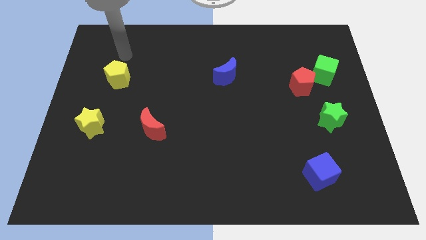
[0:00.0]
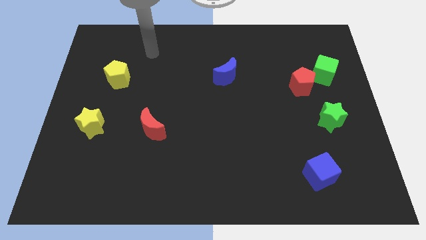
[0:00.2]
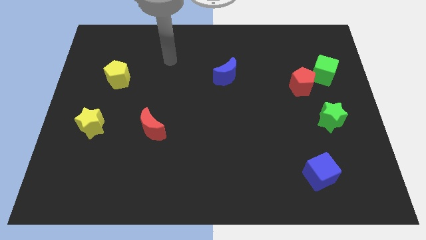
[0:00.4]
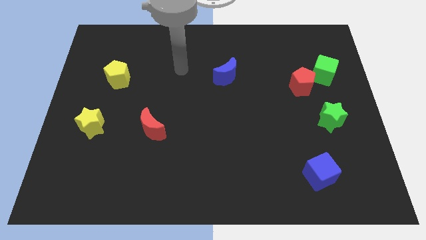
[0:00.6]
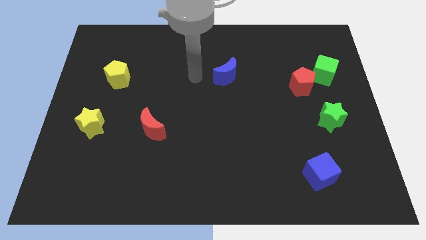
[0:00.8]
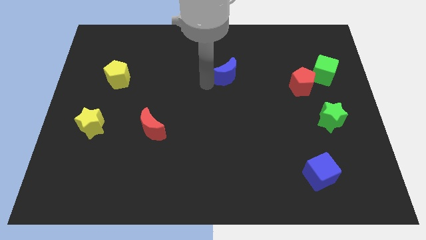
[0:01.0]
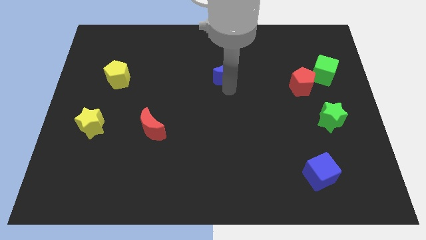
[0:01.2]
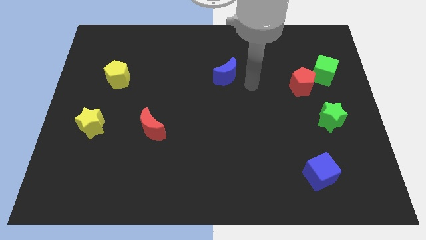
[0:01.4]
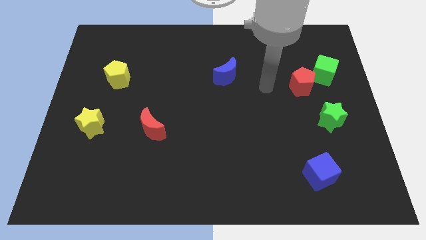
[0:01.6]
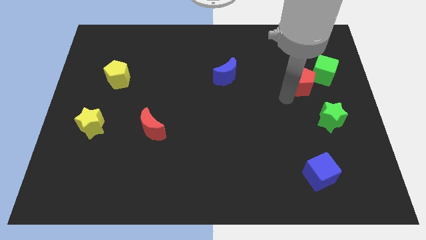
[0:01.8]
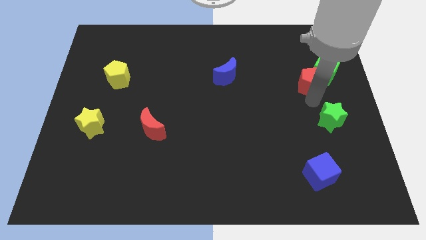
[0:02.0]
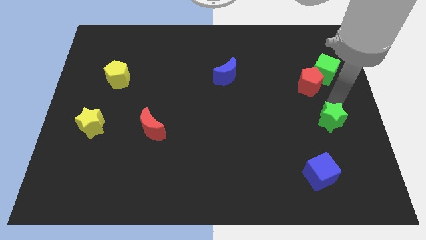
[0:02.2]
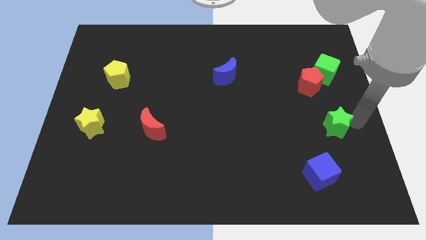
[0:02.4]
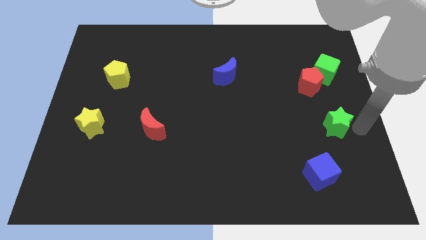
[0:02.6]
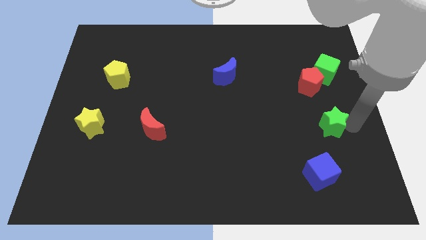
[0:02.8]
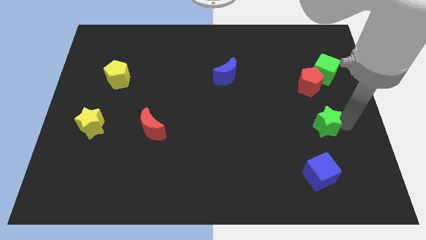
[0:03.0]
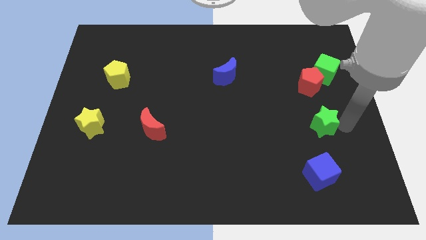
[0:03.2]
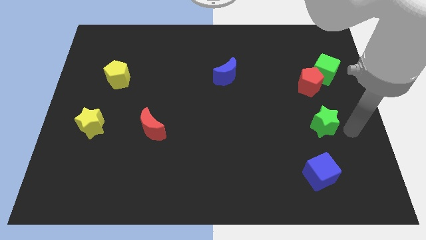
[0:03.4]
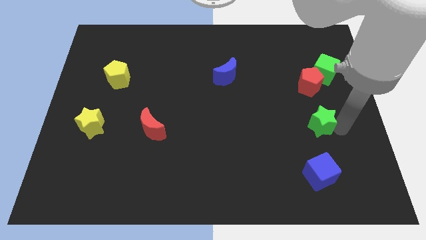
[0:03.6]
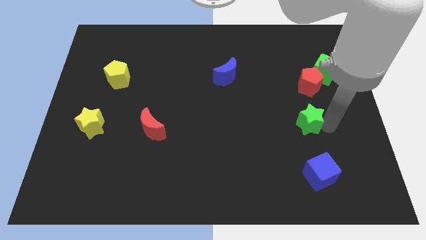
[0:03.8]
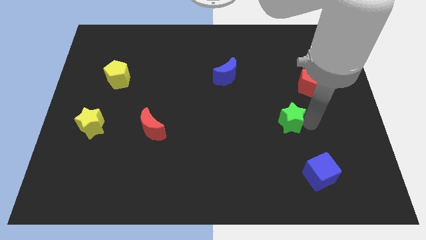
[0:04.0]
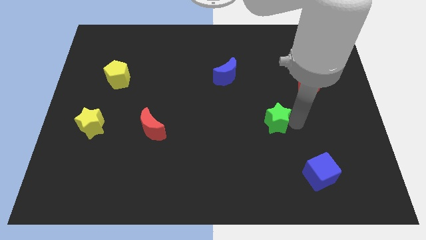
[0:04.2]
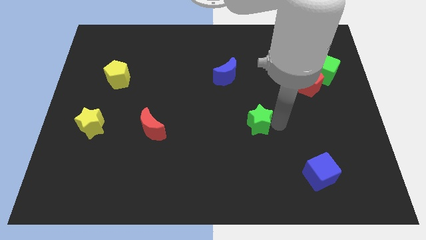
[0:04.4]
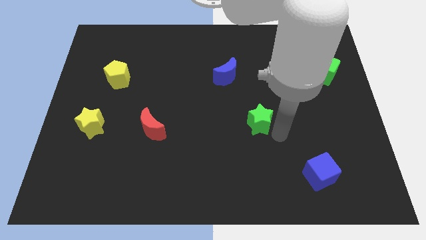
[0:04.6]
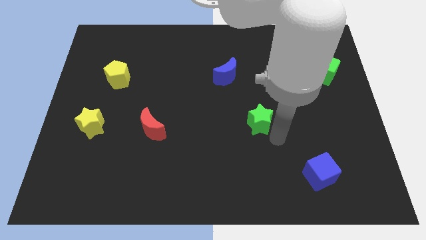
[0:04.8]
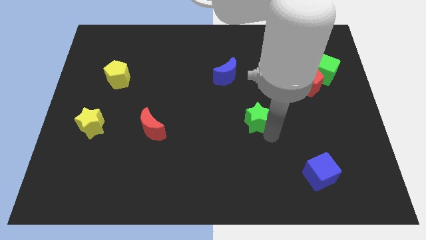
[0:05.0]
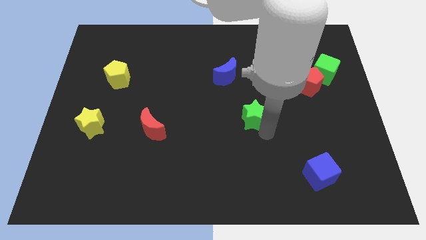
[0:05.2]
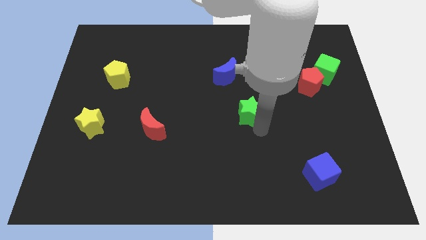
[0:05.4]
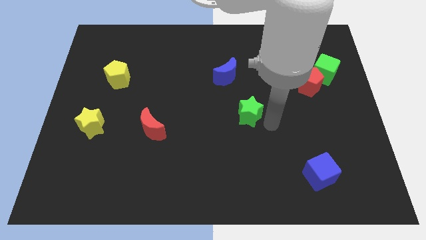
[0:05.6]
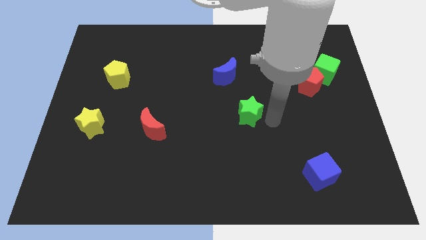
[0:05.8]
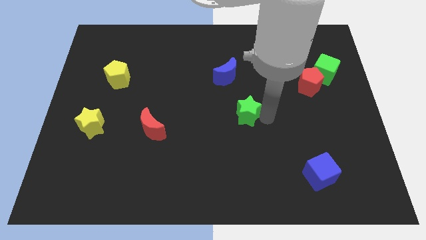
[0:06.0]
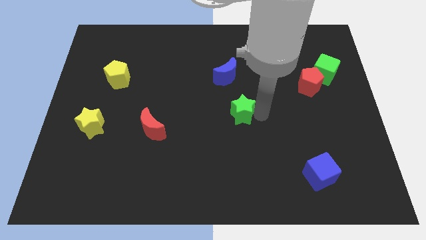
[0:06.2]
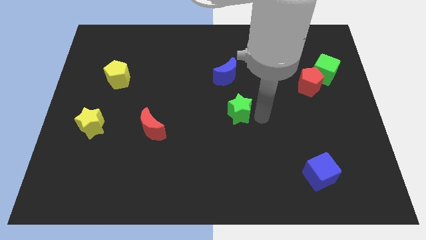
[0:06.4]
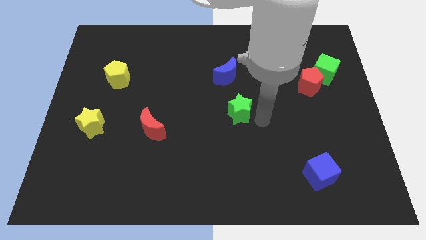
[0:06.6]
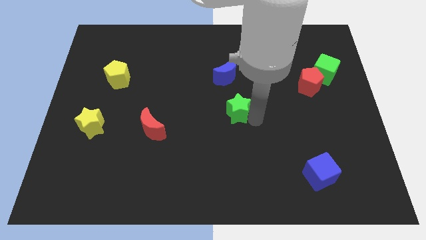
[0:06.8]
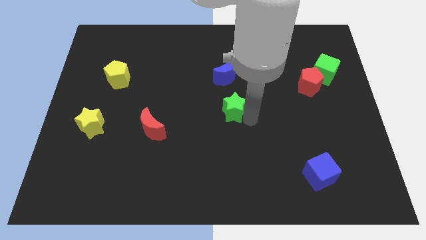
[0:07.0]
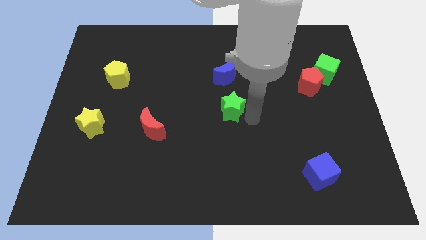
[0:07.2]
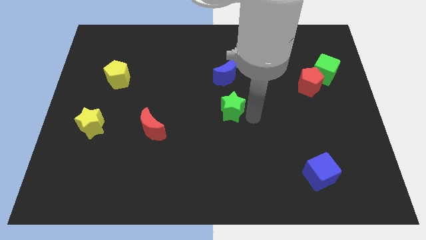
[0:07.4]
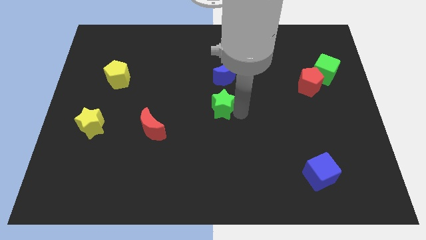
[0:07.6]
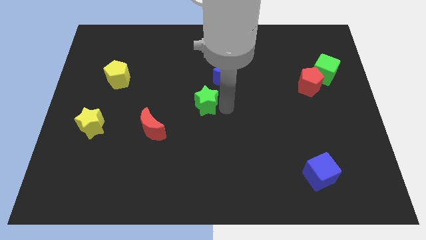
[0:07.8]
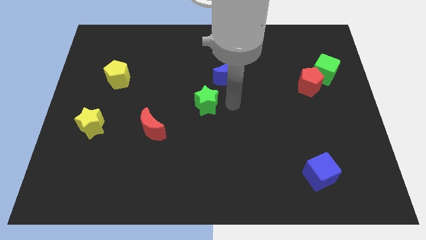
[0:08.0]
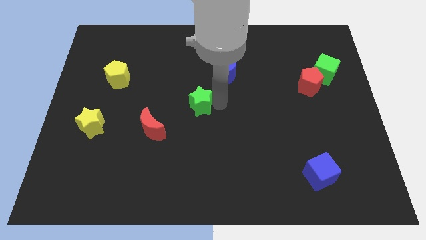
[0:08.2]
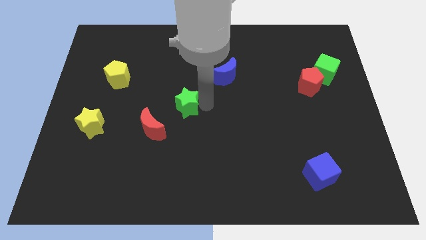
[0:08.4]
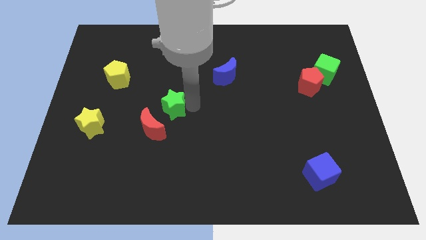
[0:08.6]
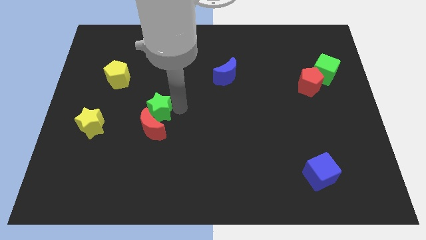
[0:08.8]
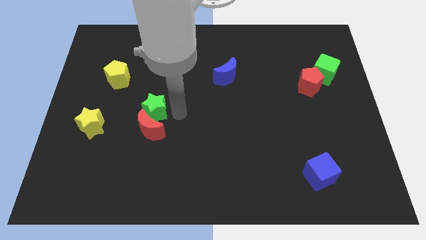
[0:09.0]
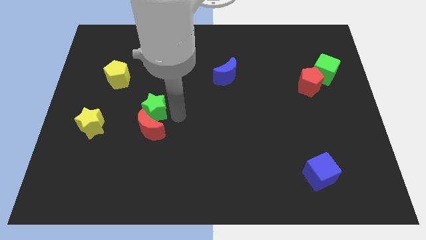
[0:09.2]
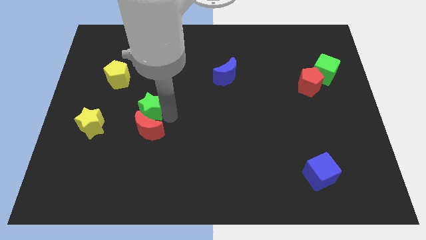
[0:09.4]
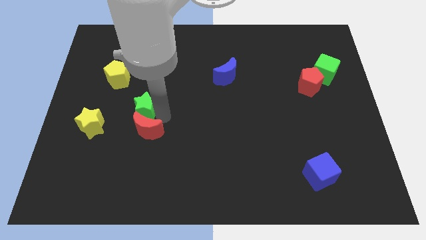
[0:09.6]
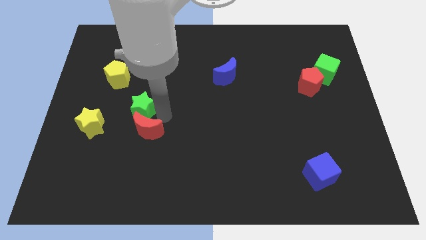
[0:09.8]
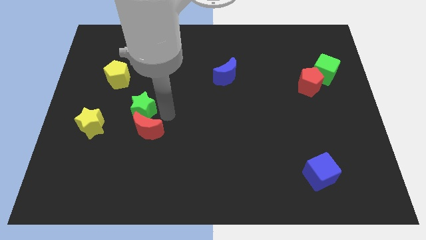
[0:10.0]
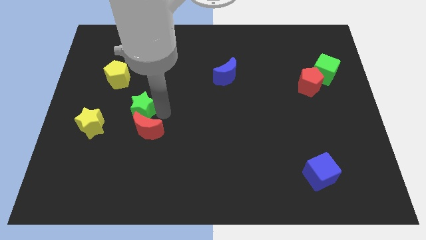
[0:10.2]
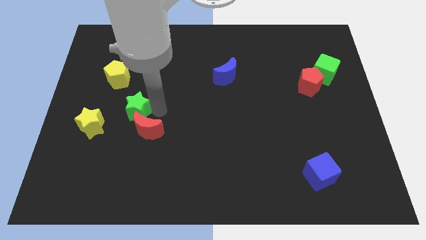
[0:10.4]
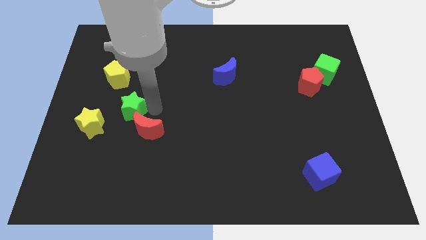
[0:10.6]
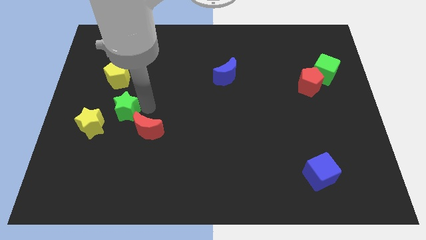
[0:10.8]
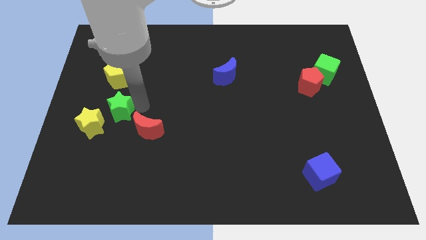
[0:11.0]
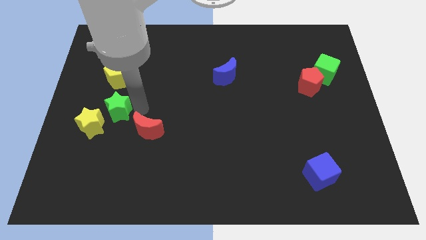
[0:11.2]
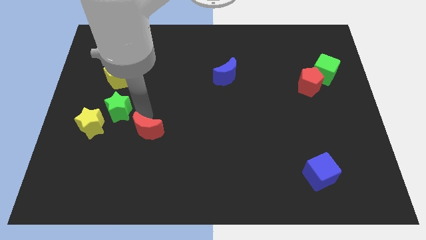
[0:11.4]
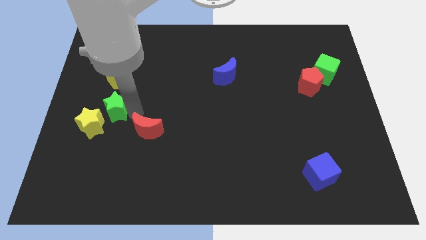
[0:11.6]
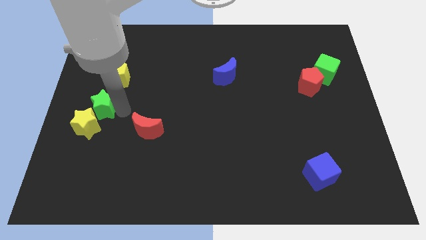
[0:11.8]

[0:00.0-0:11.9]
move the green star to the center left

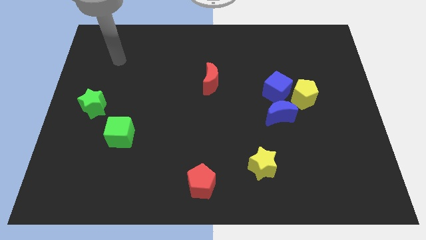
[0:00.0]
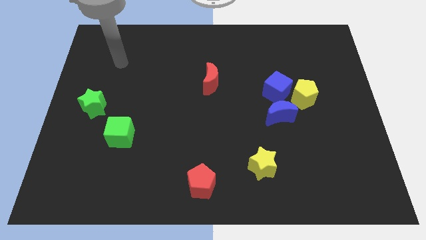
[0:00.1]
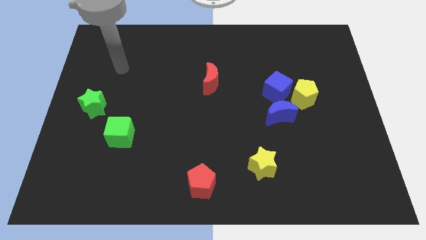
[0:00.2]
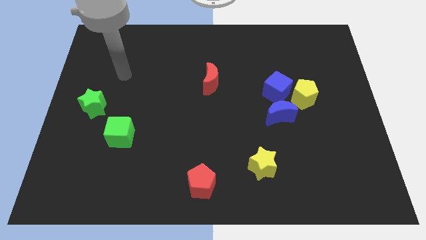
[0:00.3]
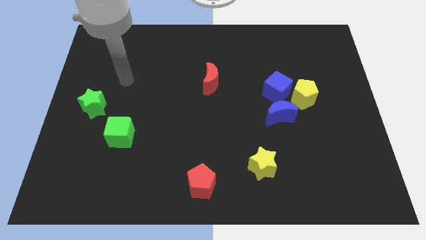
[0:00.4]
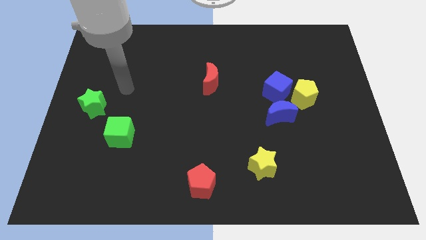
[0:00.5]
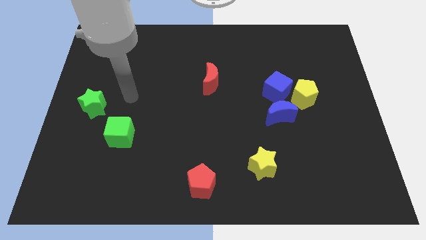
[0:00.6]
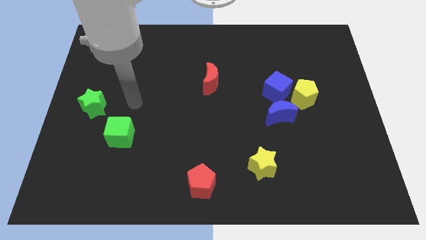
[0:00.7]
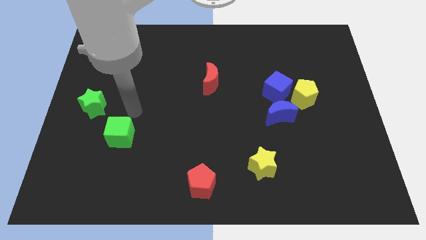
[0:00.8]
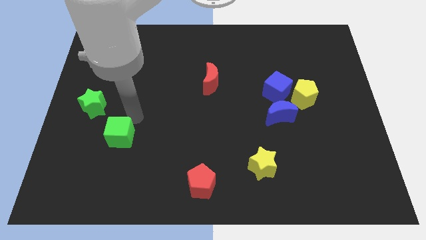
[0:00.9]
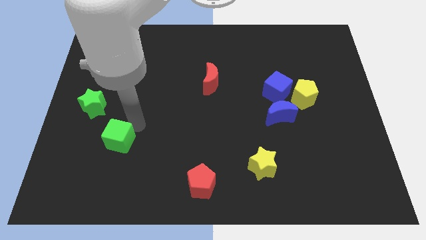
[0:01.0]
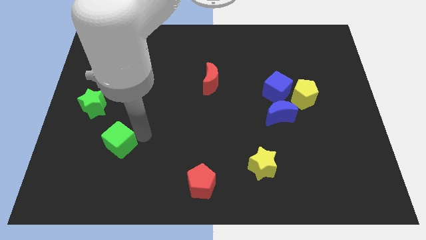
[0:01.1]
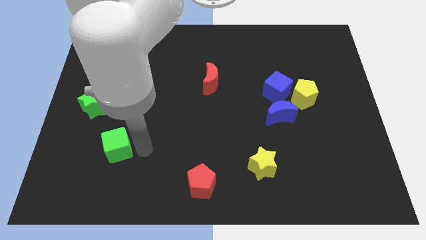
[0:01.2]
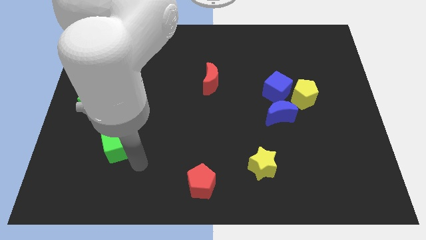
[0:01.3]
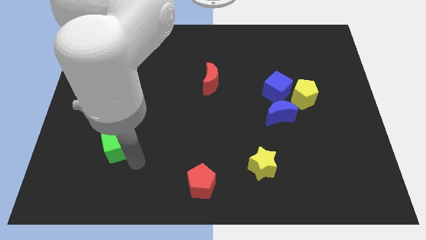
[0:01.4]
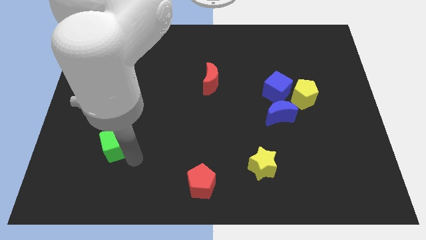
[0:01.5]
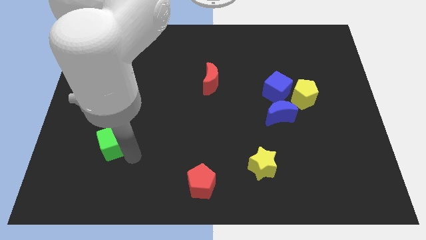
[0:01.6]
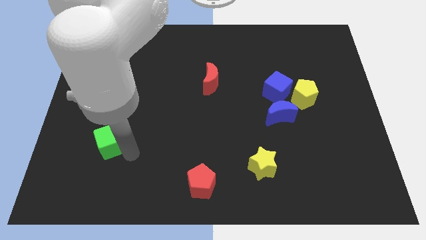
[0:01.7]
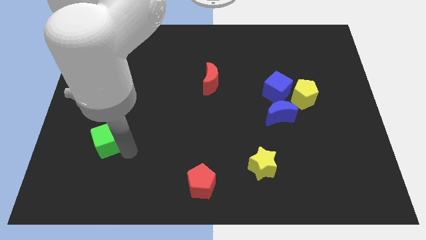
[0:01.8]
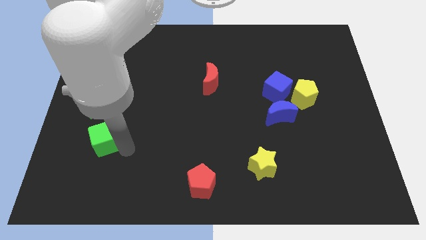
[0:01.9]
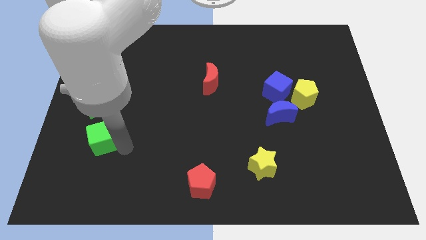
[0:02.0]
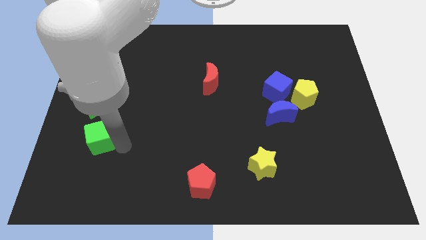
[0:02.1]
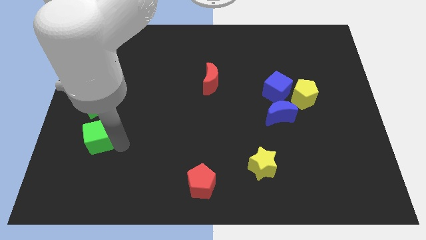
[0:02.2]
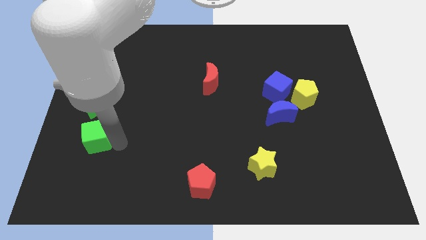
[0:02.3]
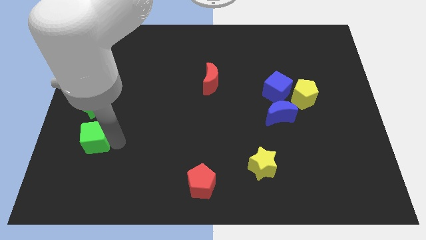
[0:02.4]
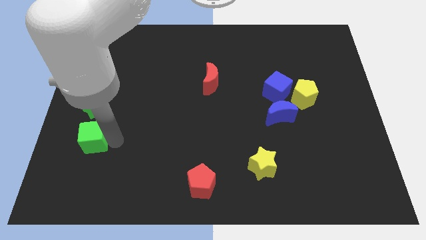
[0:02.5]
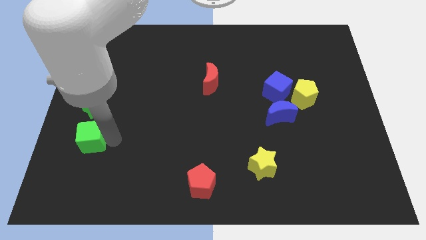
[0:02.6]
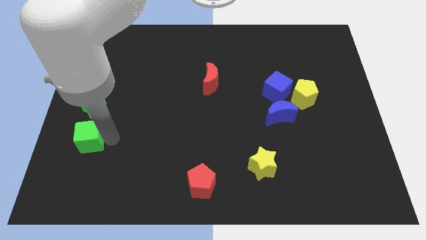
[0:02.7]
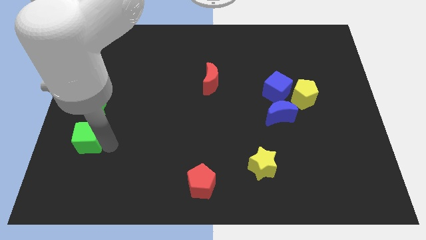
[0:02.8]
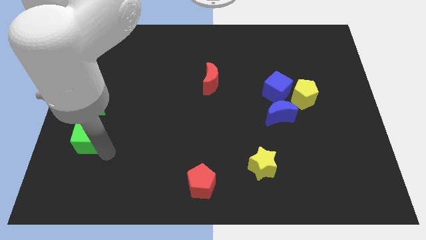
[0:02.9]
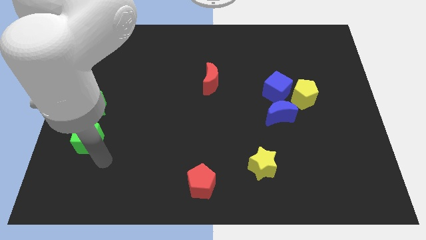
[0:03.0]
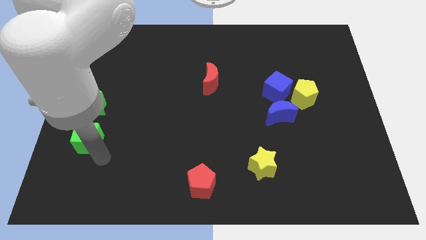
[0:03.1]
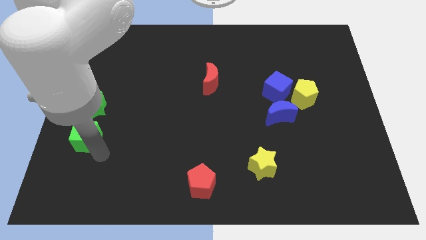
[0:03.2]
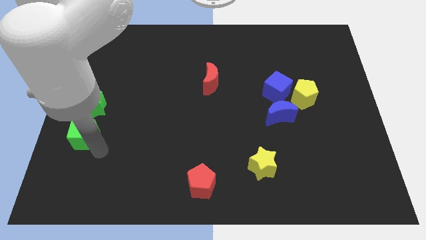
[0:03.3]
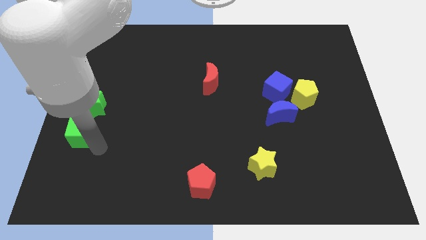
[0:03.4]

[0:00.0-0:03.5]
slide the green cube to the left side of the board
